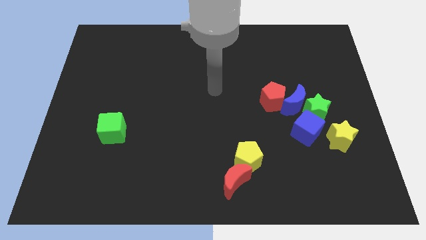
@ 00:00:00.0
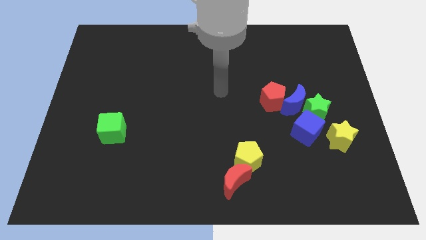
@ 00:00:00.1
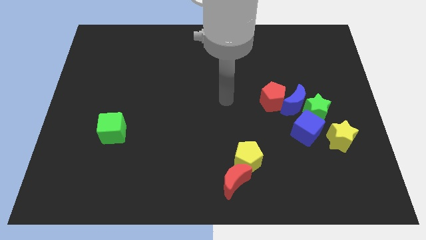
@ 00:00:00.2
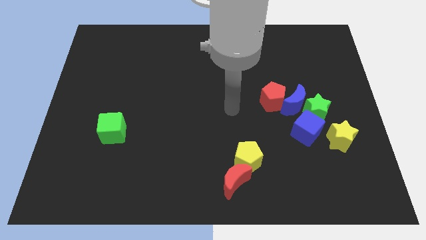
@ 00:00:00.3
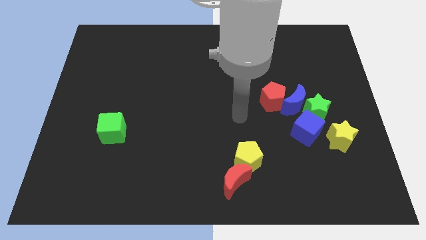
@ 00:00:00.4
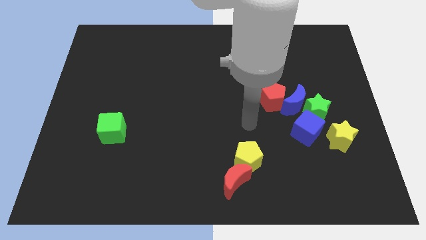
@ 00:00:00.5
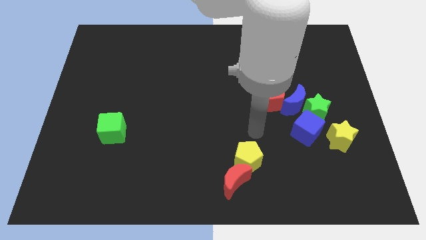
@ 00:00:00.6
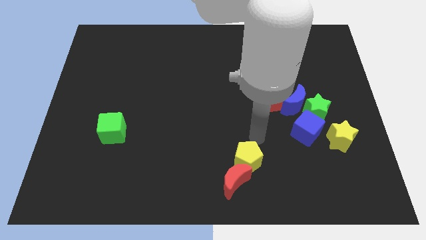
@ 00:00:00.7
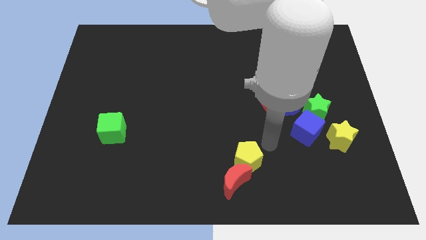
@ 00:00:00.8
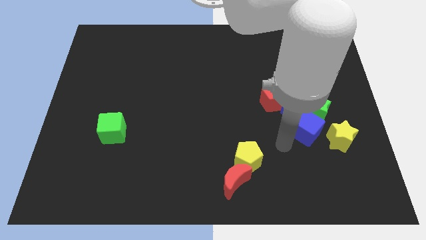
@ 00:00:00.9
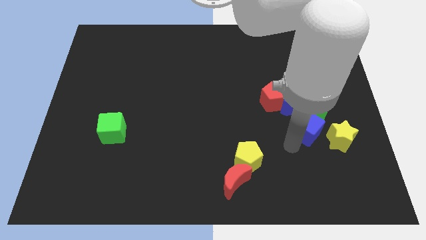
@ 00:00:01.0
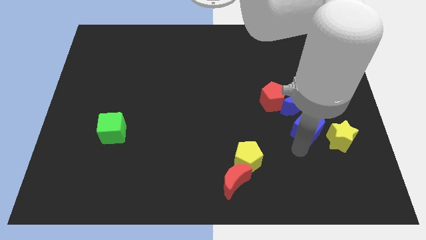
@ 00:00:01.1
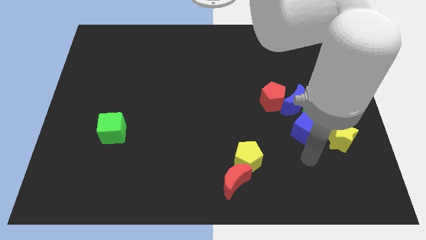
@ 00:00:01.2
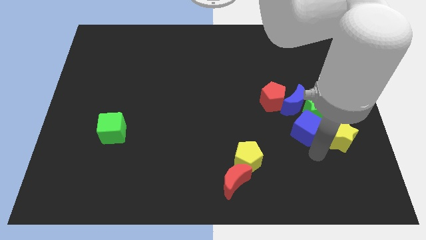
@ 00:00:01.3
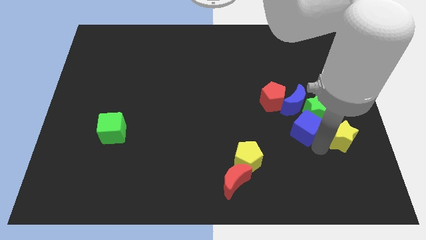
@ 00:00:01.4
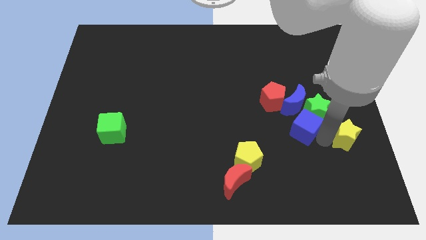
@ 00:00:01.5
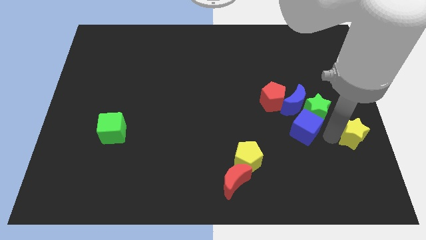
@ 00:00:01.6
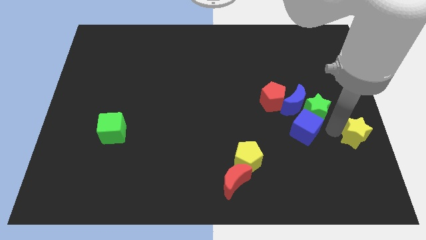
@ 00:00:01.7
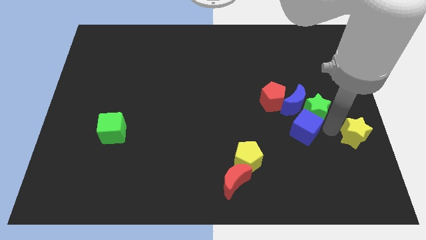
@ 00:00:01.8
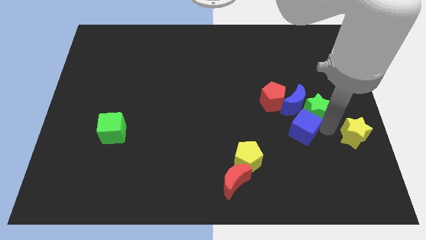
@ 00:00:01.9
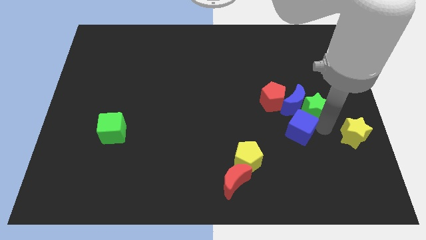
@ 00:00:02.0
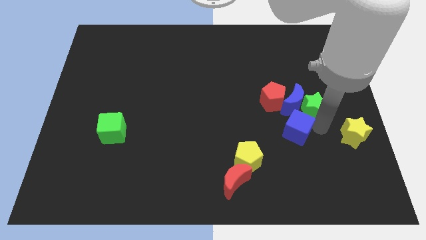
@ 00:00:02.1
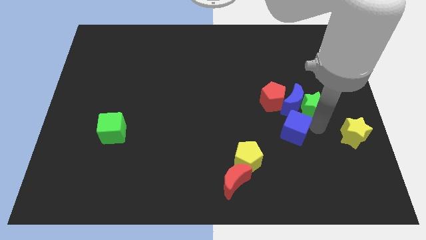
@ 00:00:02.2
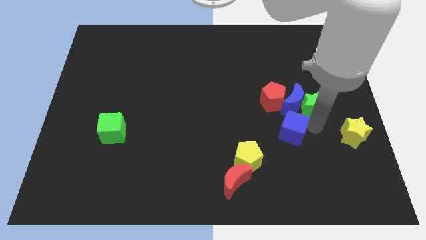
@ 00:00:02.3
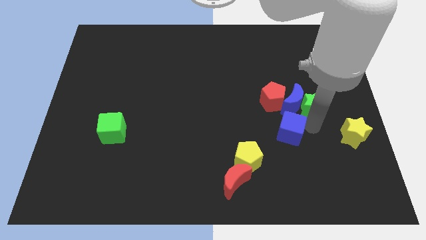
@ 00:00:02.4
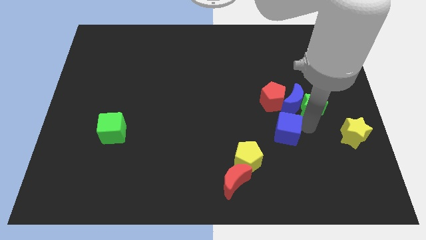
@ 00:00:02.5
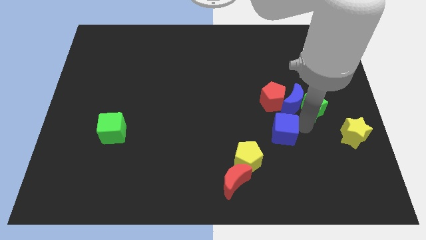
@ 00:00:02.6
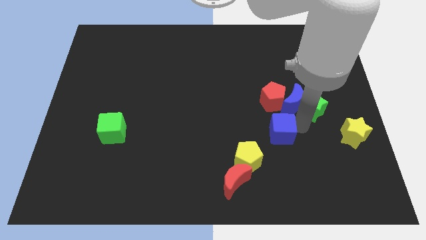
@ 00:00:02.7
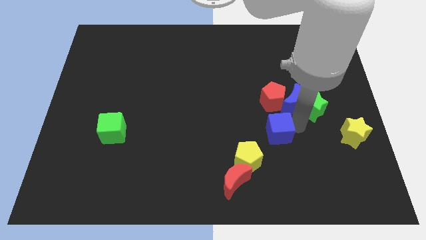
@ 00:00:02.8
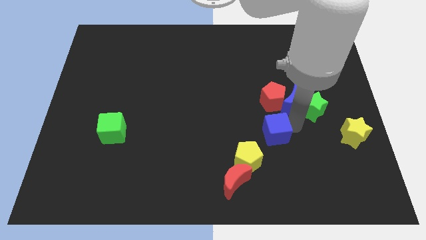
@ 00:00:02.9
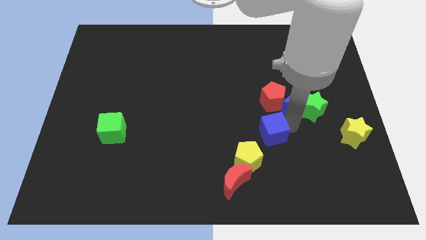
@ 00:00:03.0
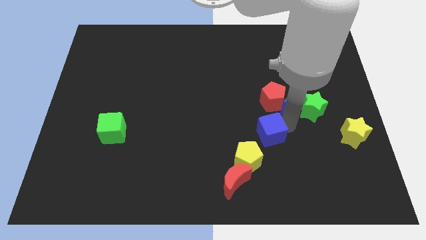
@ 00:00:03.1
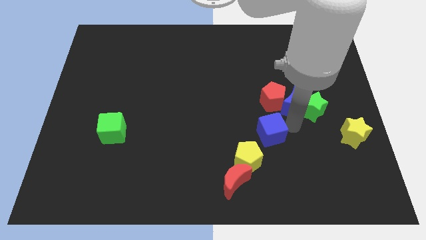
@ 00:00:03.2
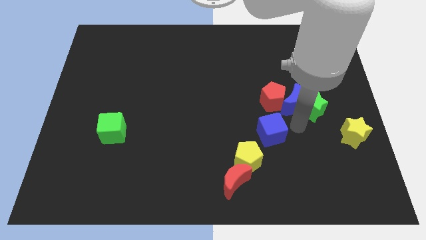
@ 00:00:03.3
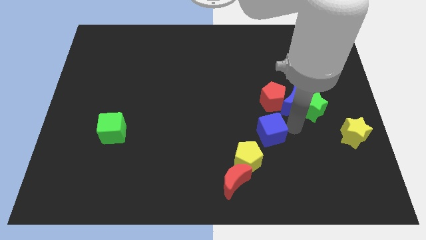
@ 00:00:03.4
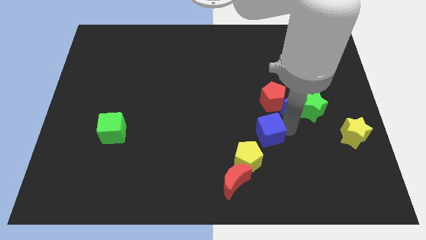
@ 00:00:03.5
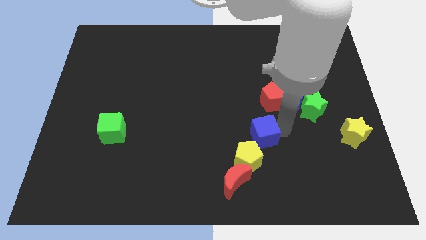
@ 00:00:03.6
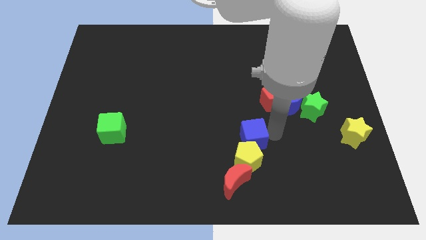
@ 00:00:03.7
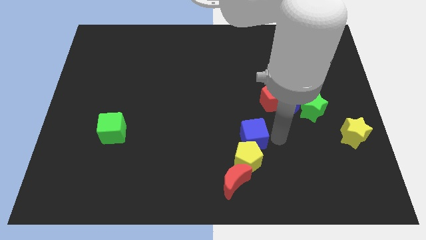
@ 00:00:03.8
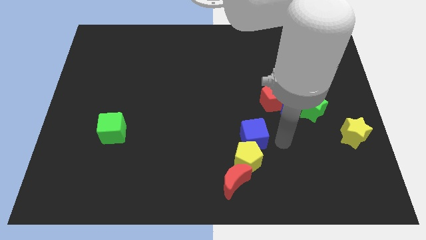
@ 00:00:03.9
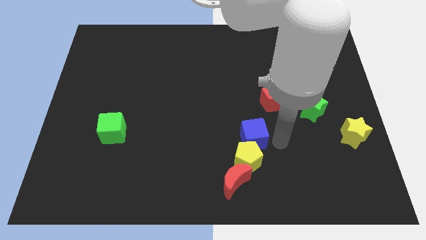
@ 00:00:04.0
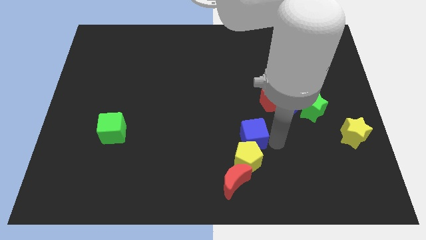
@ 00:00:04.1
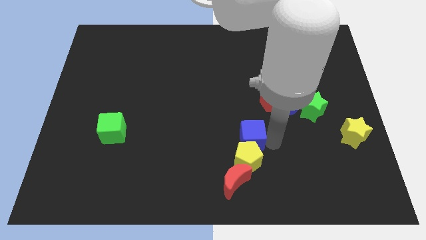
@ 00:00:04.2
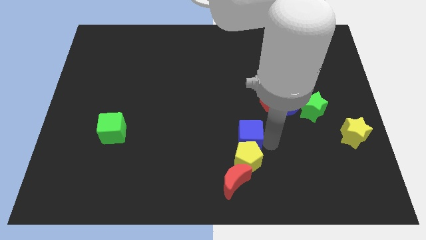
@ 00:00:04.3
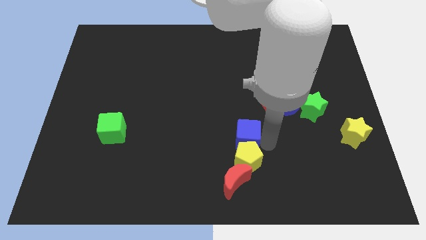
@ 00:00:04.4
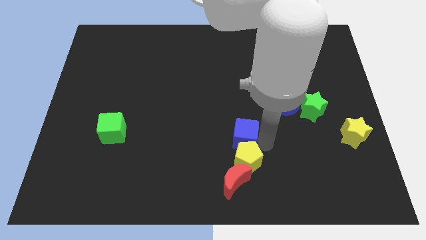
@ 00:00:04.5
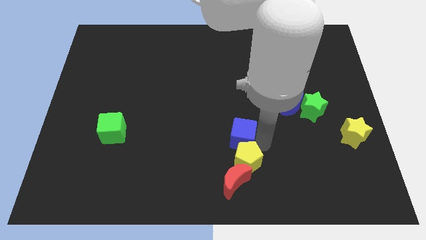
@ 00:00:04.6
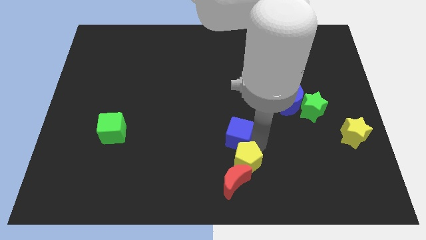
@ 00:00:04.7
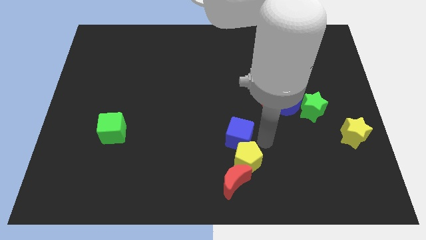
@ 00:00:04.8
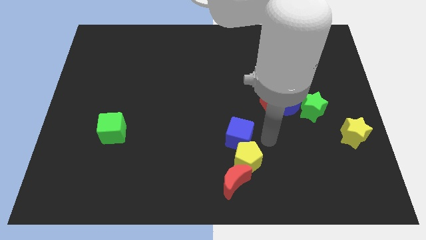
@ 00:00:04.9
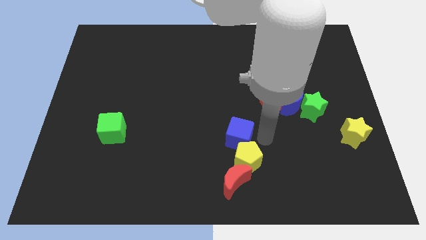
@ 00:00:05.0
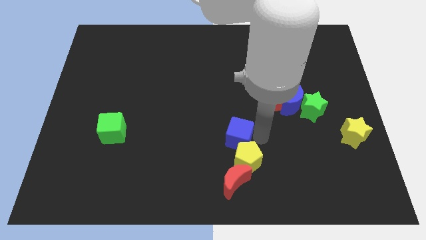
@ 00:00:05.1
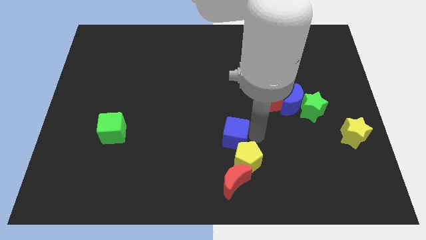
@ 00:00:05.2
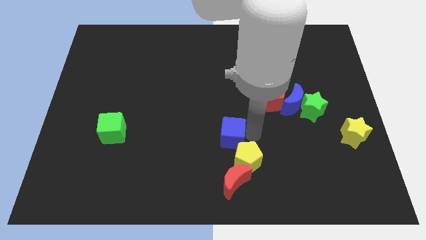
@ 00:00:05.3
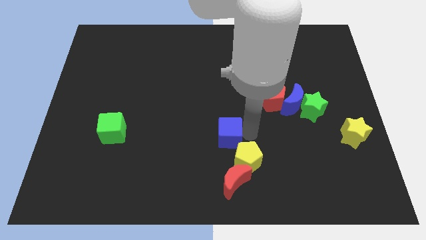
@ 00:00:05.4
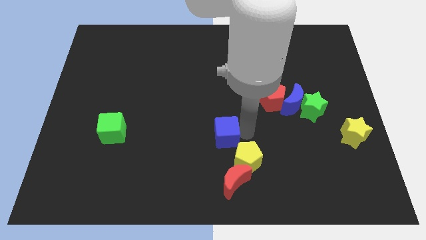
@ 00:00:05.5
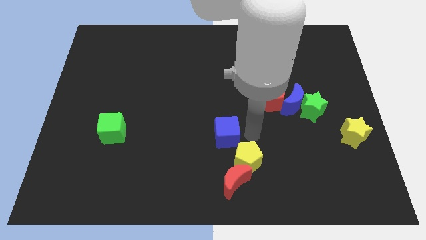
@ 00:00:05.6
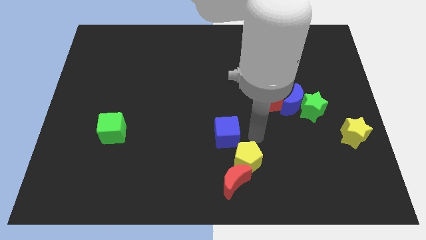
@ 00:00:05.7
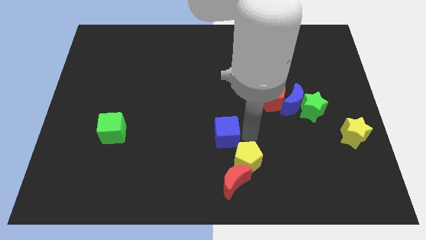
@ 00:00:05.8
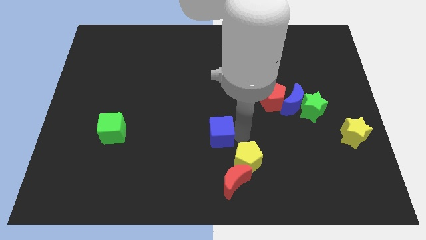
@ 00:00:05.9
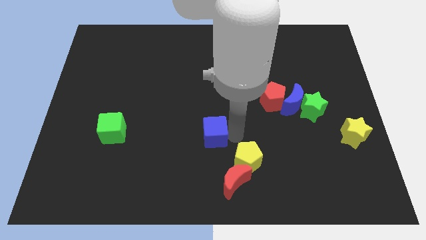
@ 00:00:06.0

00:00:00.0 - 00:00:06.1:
slide the blue cube left

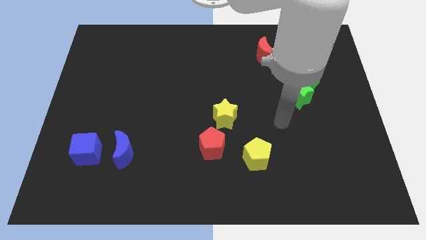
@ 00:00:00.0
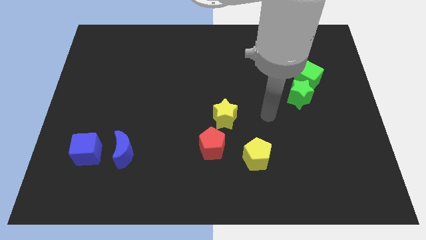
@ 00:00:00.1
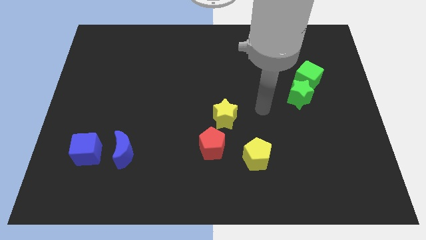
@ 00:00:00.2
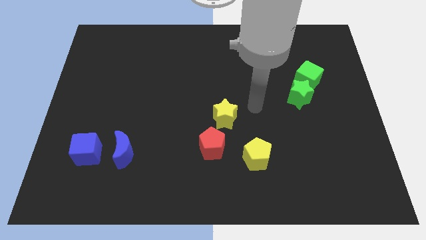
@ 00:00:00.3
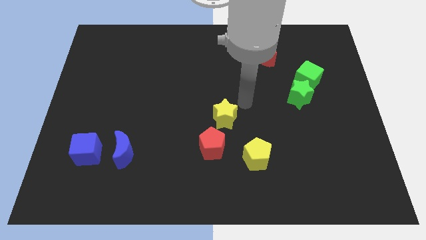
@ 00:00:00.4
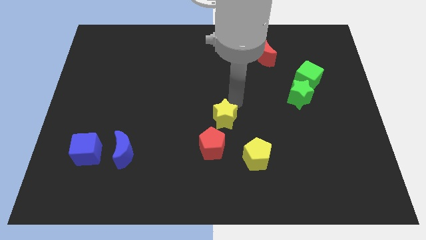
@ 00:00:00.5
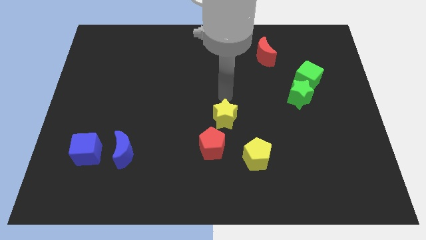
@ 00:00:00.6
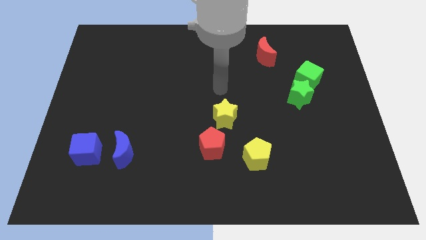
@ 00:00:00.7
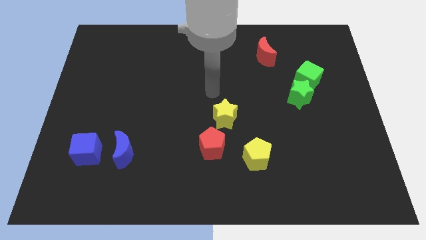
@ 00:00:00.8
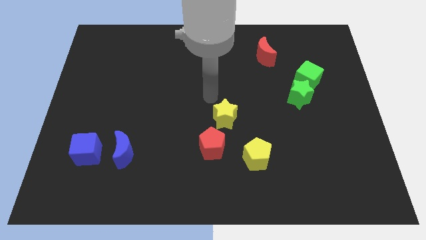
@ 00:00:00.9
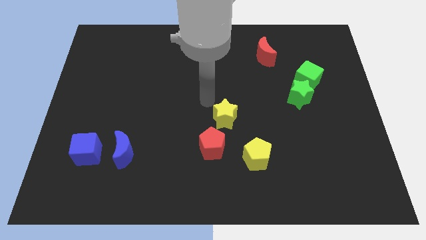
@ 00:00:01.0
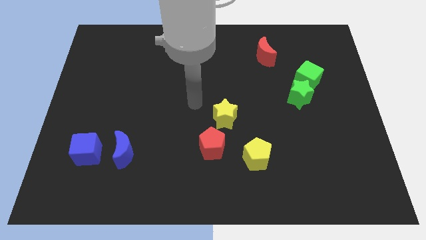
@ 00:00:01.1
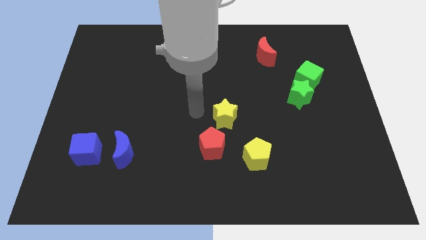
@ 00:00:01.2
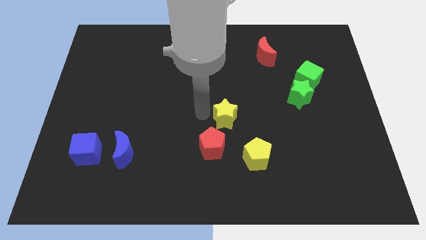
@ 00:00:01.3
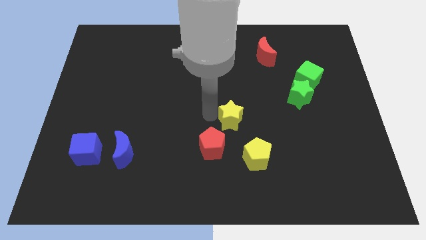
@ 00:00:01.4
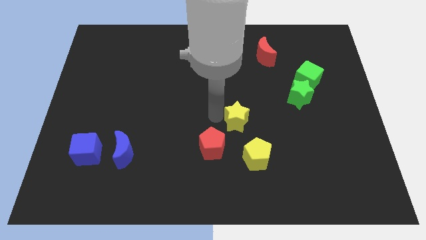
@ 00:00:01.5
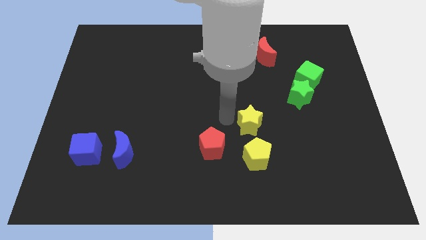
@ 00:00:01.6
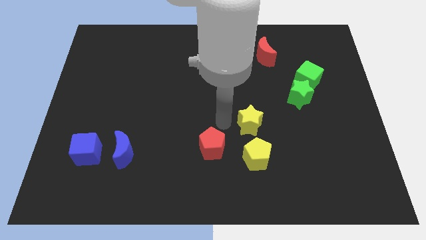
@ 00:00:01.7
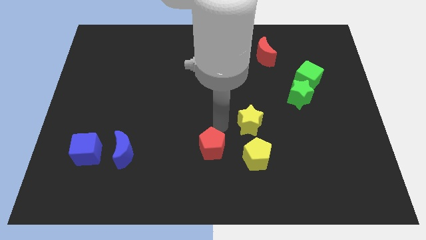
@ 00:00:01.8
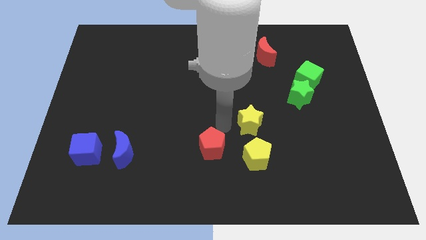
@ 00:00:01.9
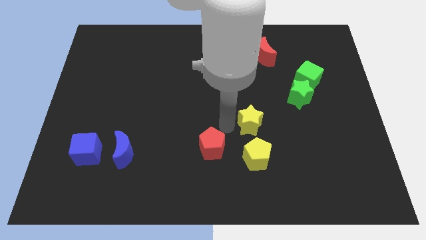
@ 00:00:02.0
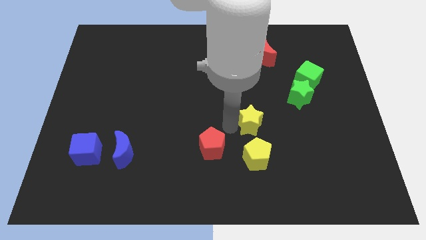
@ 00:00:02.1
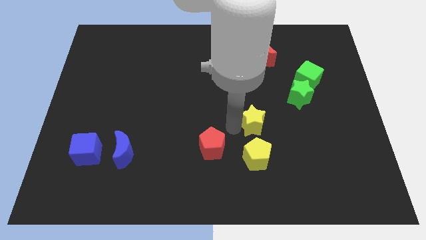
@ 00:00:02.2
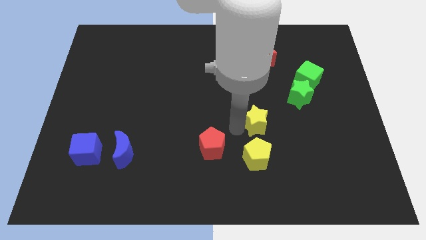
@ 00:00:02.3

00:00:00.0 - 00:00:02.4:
push the yellow star to the right a little bit
